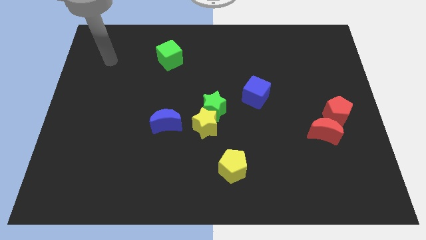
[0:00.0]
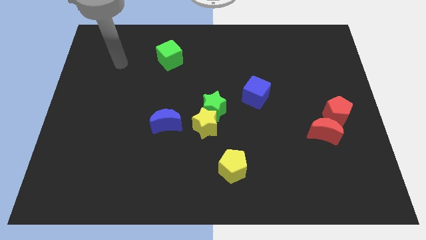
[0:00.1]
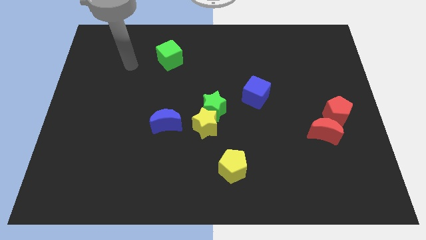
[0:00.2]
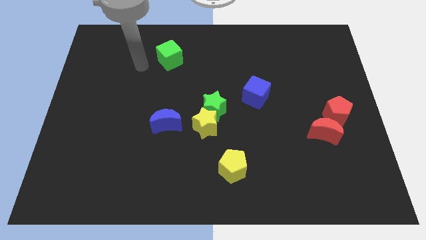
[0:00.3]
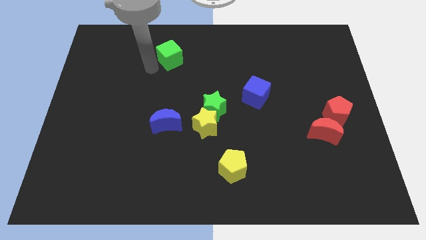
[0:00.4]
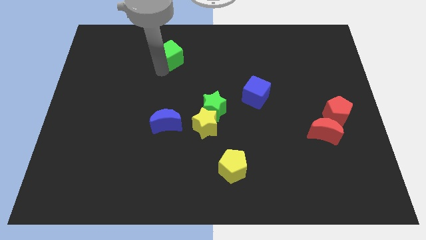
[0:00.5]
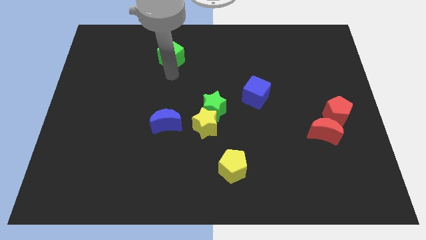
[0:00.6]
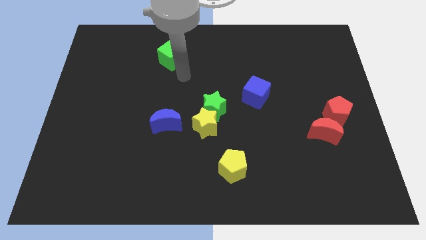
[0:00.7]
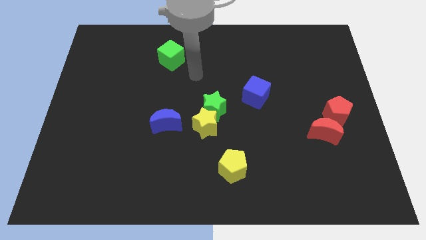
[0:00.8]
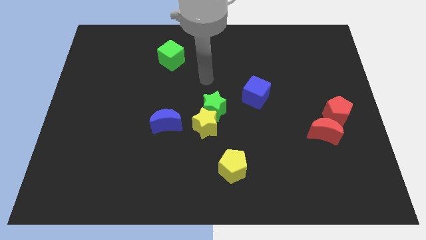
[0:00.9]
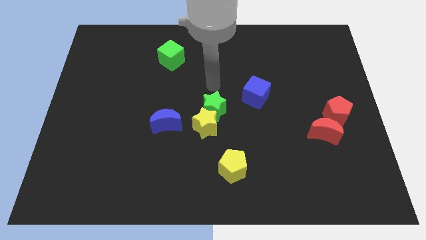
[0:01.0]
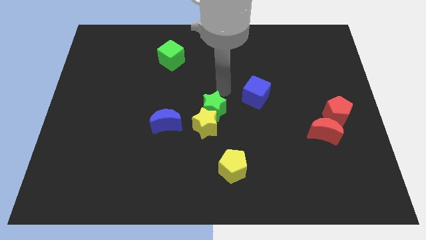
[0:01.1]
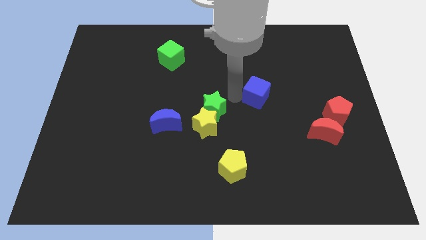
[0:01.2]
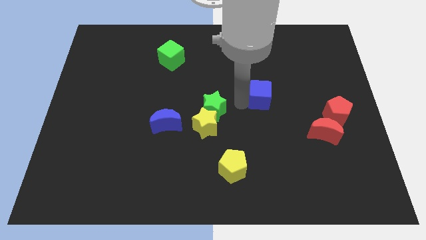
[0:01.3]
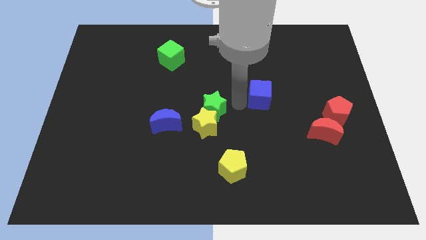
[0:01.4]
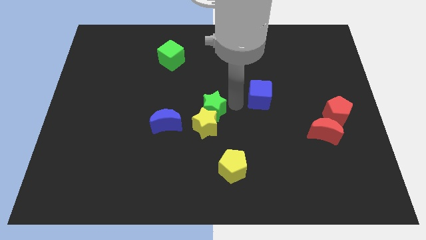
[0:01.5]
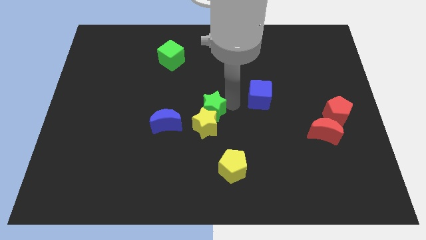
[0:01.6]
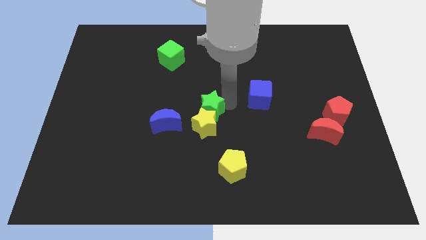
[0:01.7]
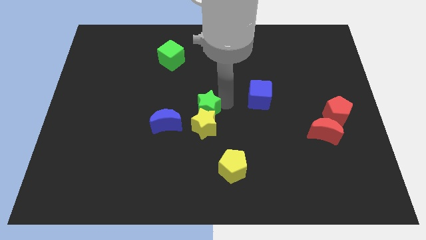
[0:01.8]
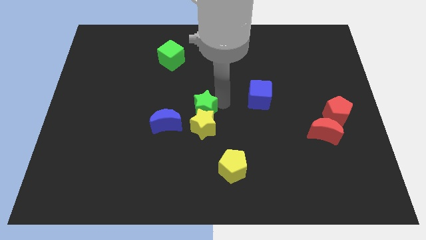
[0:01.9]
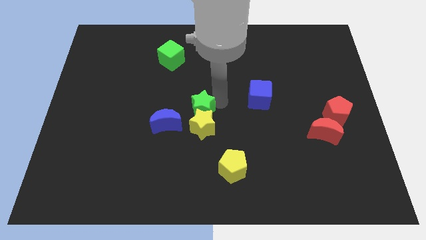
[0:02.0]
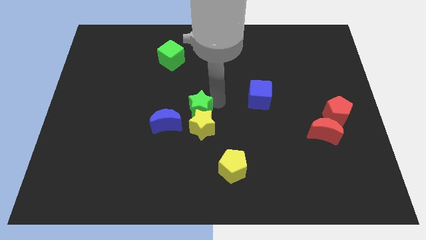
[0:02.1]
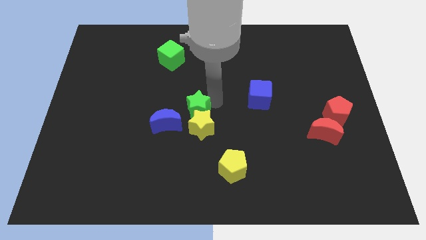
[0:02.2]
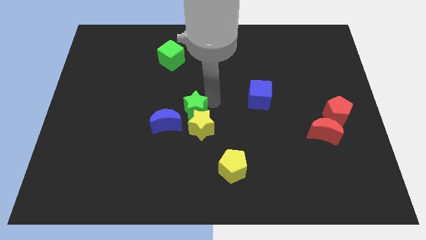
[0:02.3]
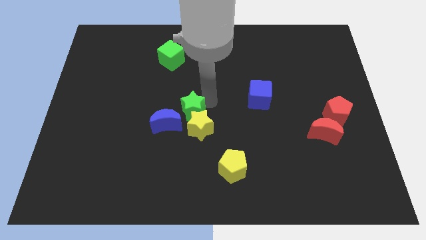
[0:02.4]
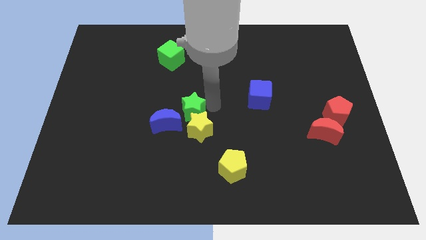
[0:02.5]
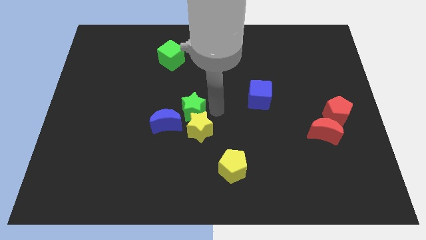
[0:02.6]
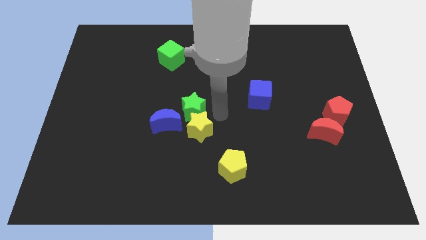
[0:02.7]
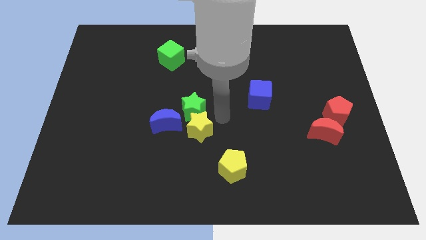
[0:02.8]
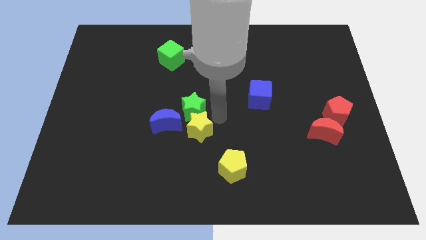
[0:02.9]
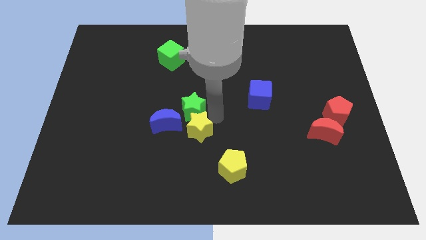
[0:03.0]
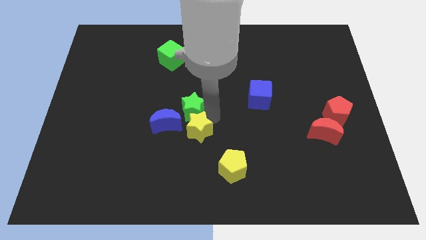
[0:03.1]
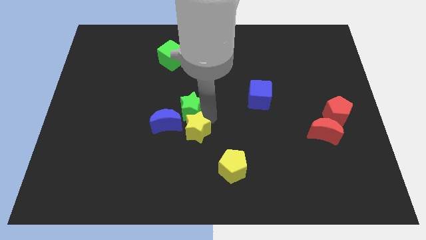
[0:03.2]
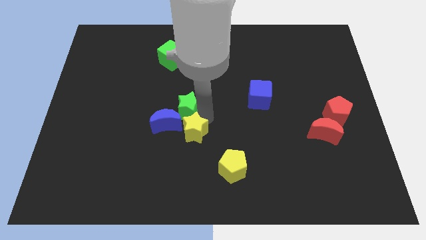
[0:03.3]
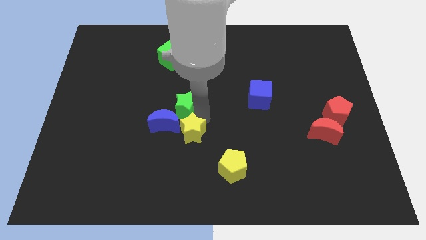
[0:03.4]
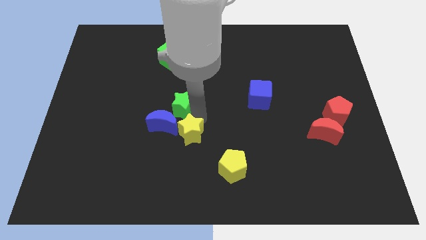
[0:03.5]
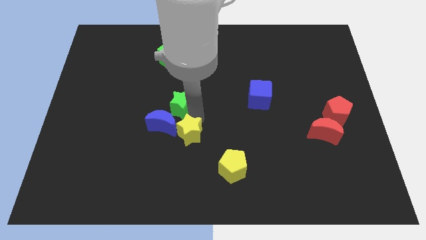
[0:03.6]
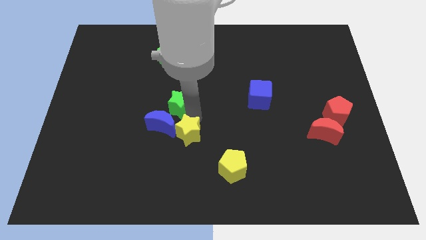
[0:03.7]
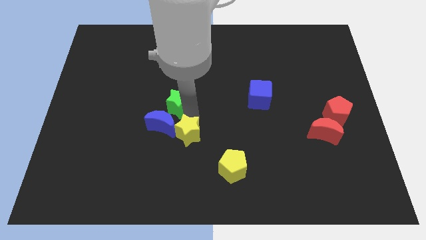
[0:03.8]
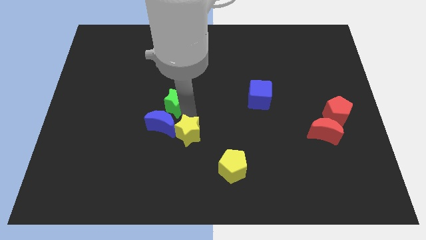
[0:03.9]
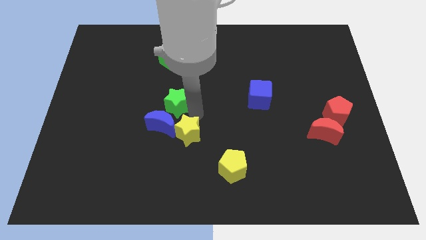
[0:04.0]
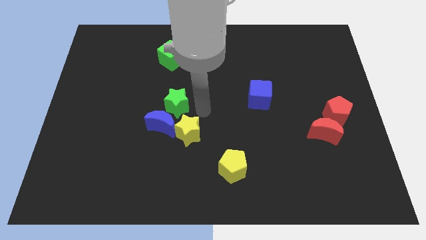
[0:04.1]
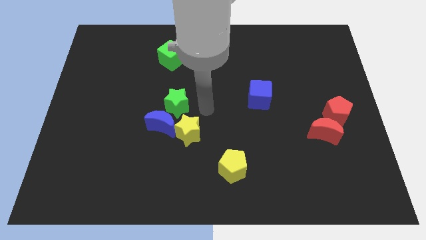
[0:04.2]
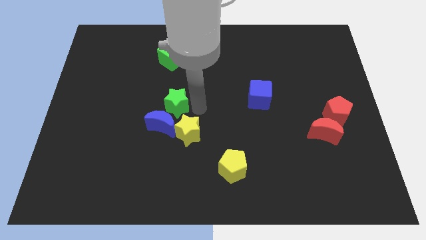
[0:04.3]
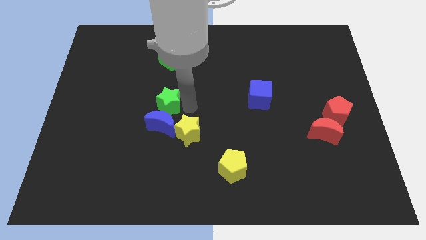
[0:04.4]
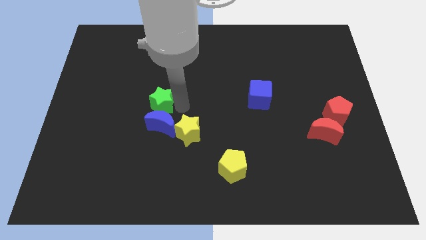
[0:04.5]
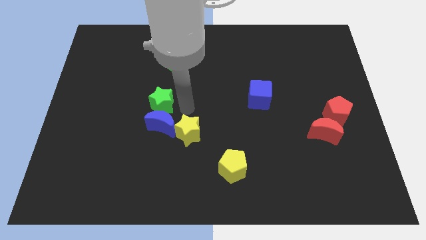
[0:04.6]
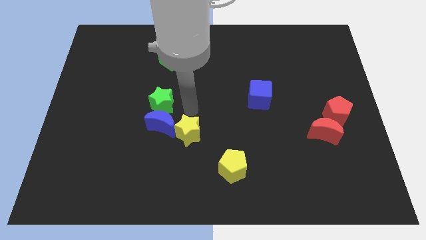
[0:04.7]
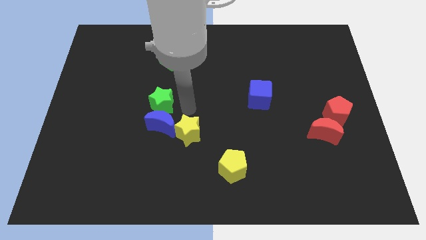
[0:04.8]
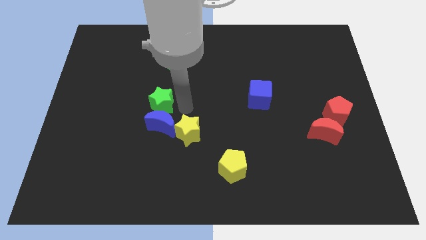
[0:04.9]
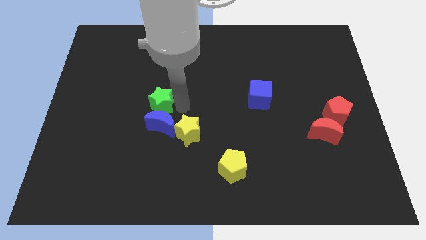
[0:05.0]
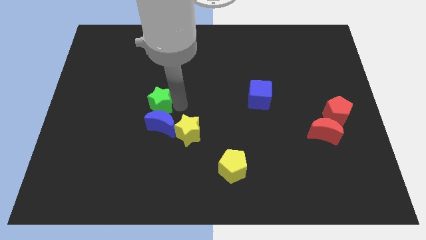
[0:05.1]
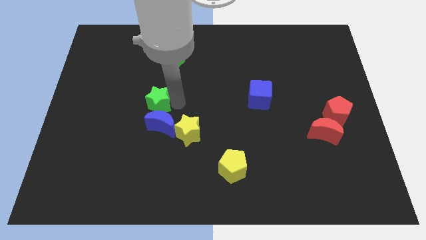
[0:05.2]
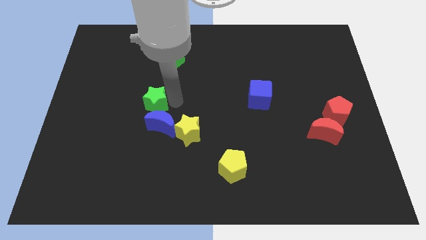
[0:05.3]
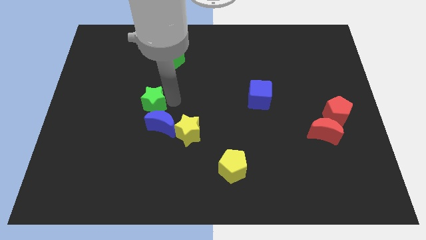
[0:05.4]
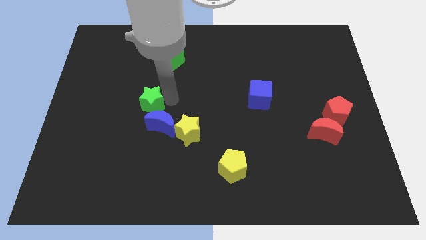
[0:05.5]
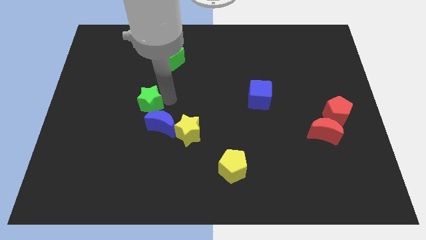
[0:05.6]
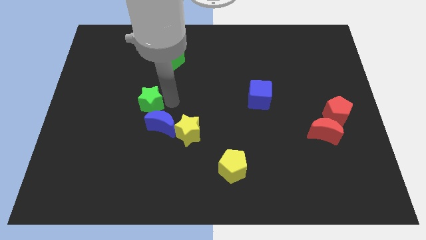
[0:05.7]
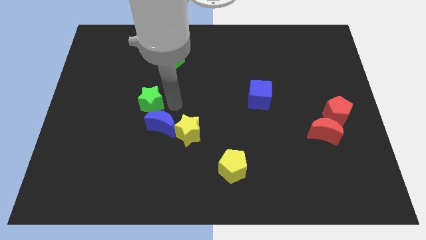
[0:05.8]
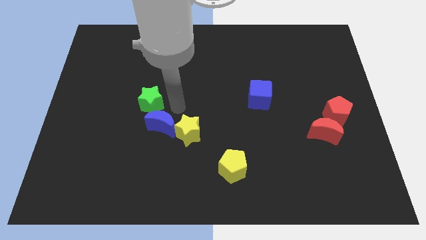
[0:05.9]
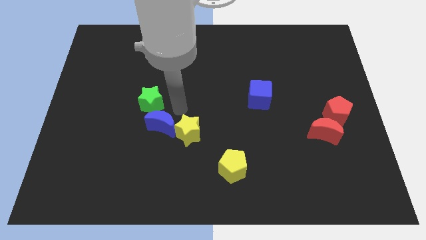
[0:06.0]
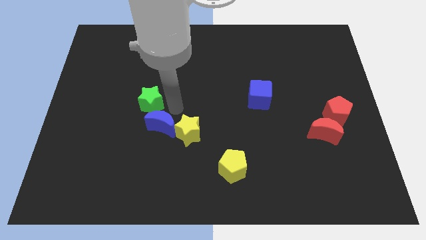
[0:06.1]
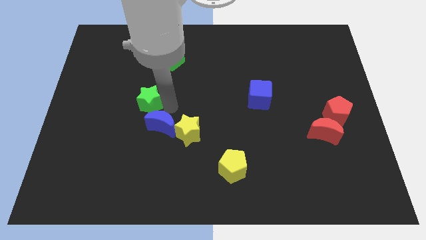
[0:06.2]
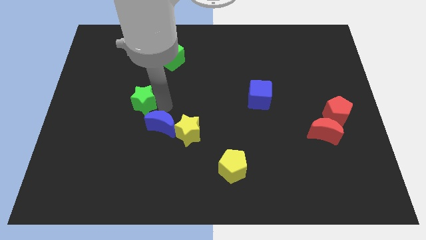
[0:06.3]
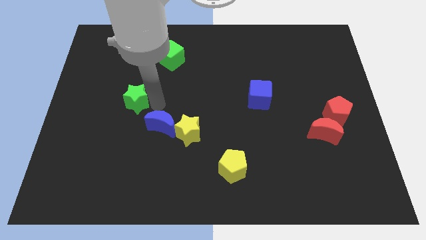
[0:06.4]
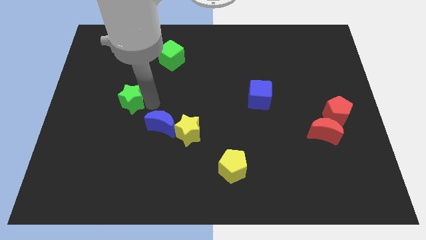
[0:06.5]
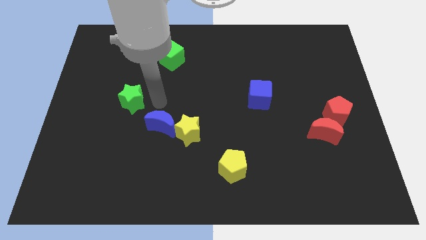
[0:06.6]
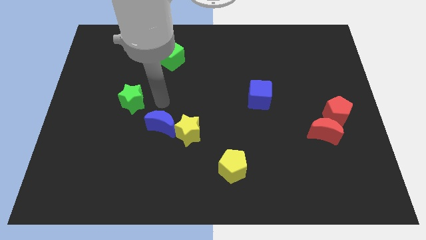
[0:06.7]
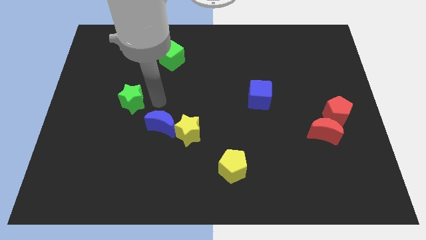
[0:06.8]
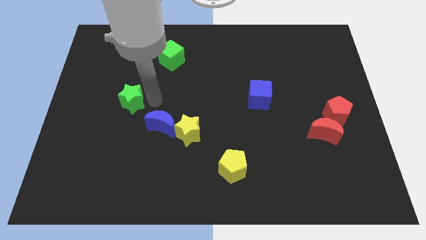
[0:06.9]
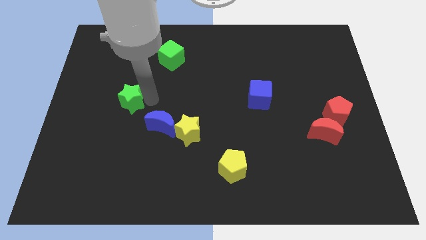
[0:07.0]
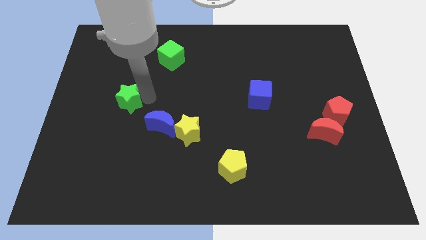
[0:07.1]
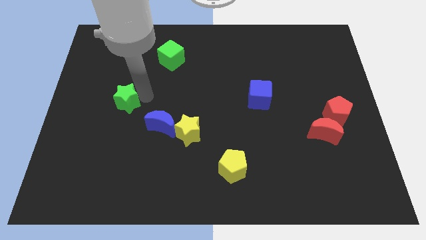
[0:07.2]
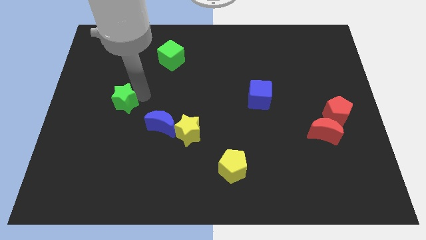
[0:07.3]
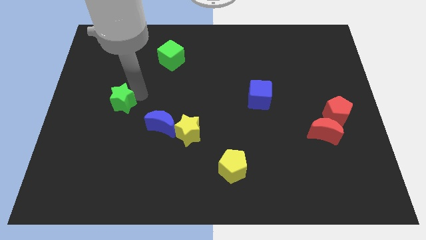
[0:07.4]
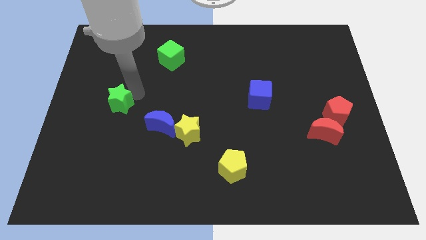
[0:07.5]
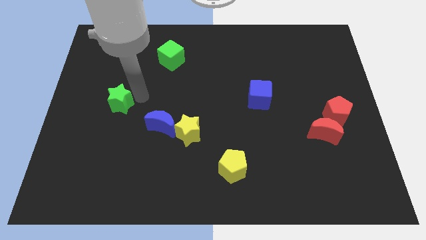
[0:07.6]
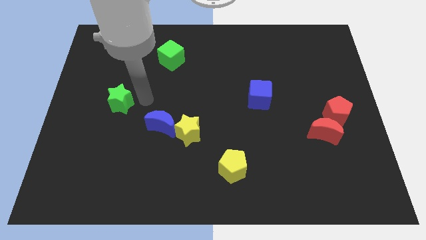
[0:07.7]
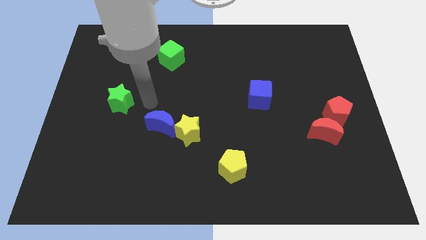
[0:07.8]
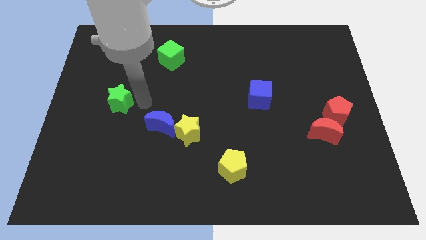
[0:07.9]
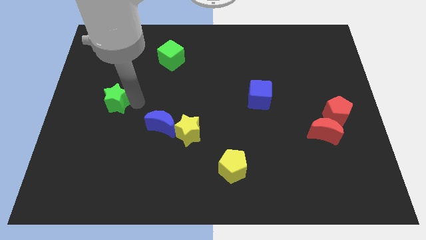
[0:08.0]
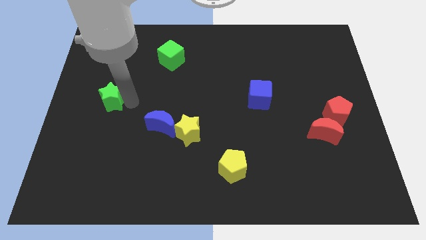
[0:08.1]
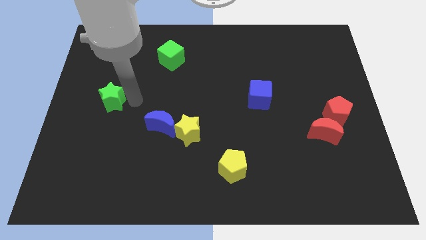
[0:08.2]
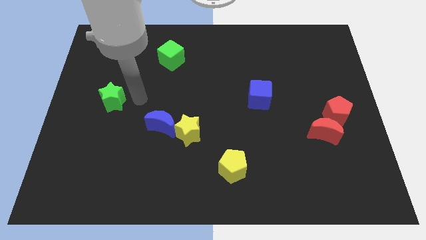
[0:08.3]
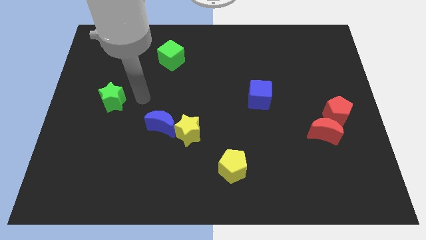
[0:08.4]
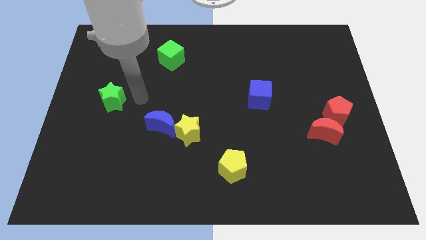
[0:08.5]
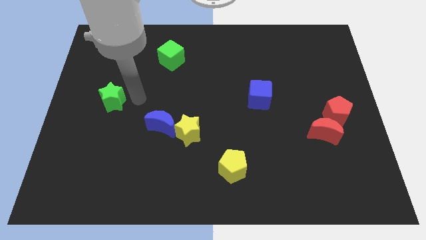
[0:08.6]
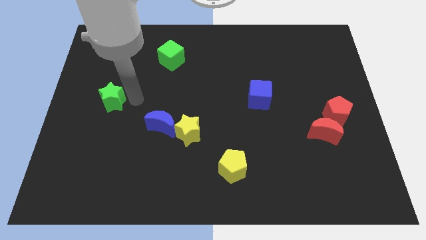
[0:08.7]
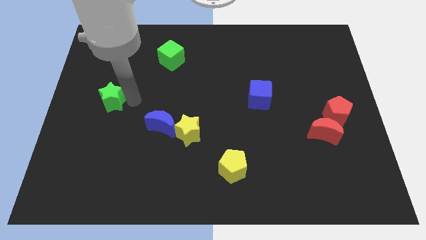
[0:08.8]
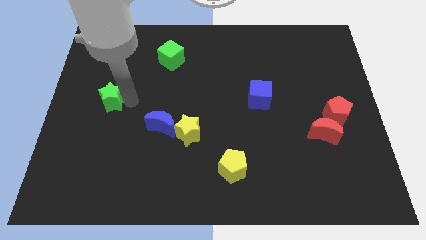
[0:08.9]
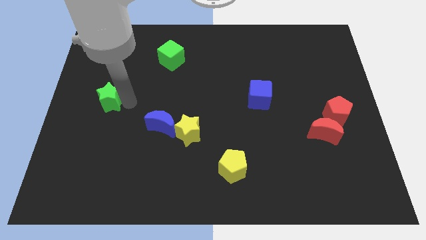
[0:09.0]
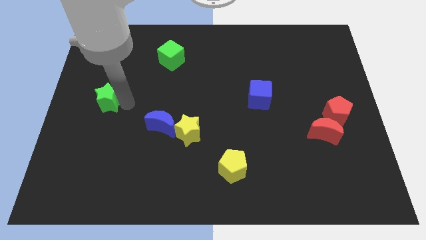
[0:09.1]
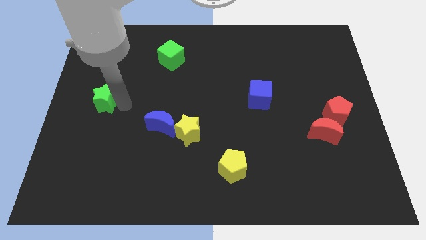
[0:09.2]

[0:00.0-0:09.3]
push the green star to the left side of the board
